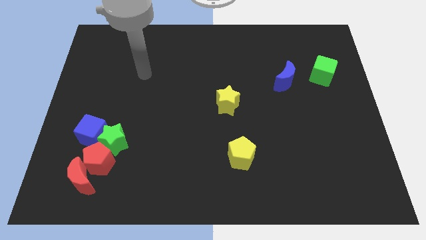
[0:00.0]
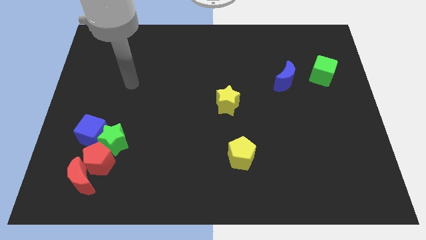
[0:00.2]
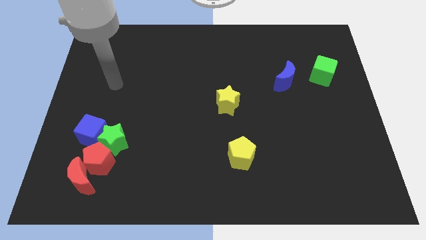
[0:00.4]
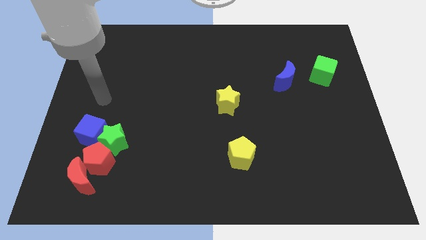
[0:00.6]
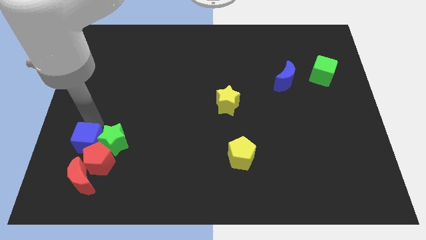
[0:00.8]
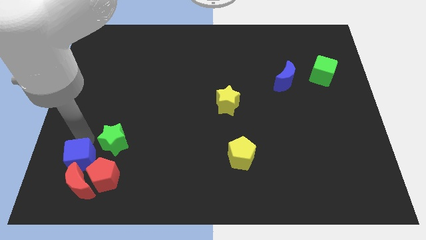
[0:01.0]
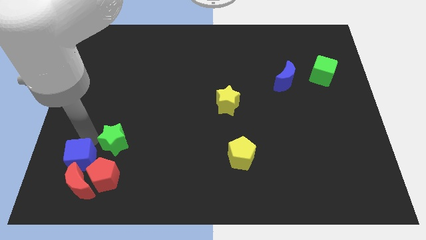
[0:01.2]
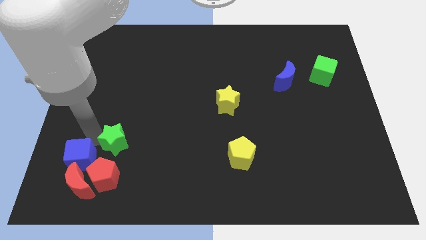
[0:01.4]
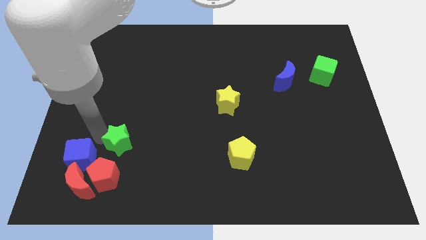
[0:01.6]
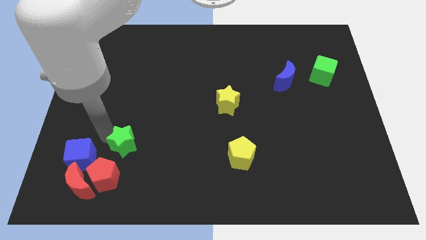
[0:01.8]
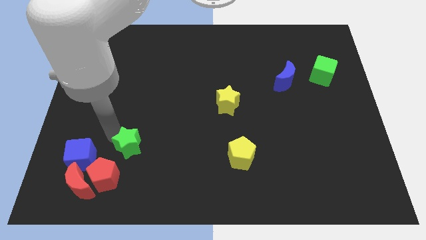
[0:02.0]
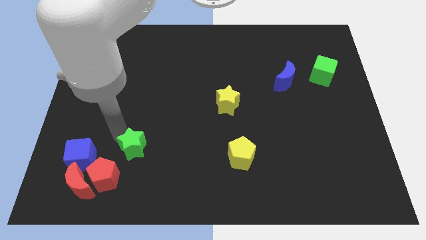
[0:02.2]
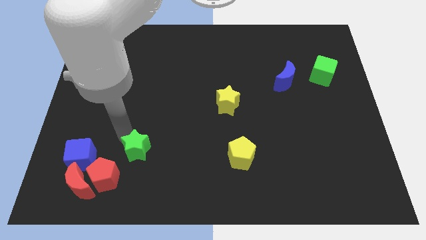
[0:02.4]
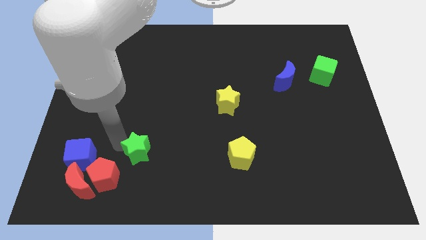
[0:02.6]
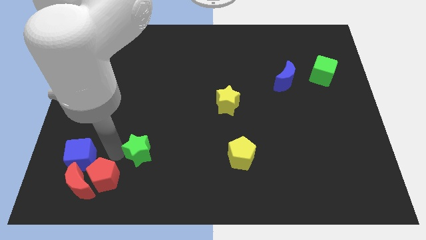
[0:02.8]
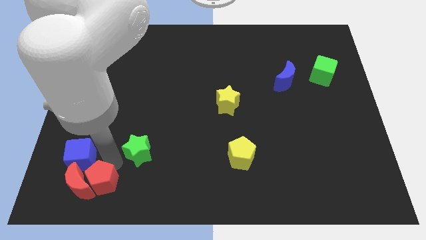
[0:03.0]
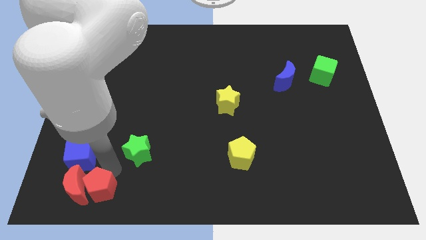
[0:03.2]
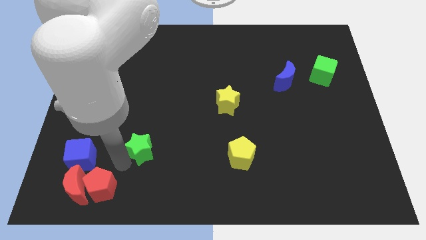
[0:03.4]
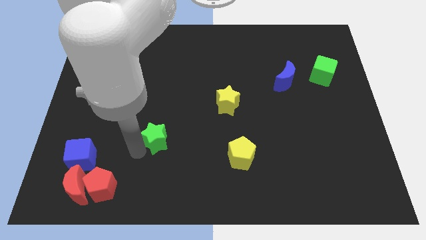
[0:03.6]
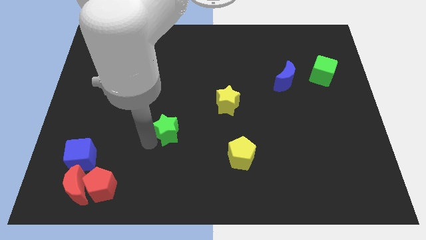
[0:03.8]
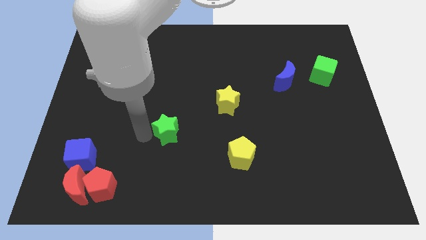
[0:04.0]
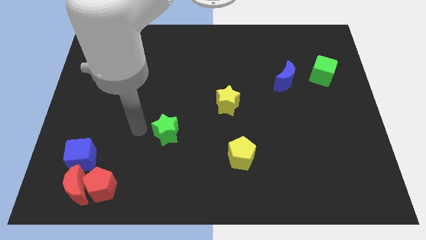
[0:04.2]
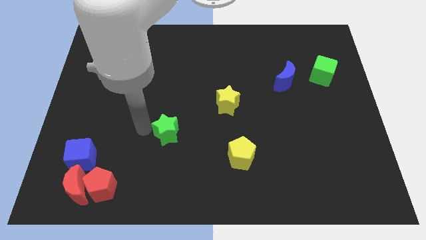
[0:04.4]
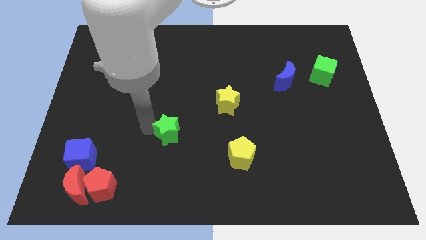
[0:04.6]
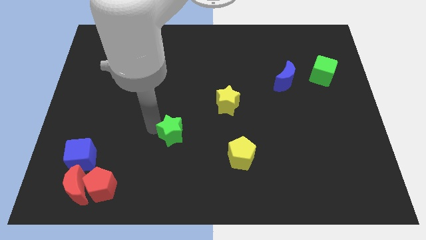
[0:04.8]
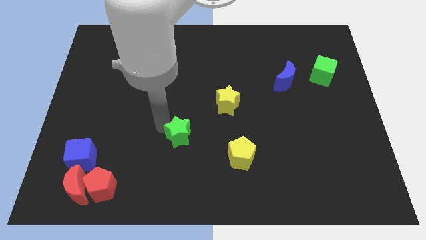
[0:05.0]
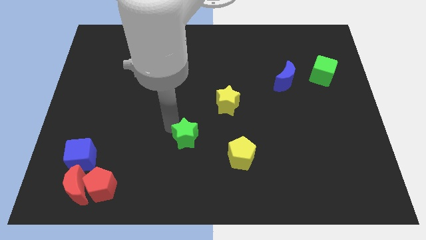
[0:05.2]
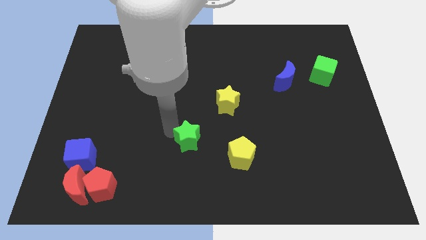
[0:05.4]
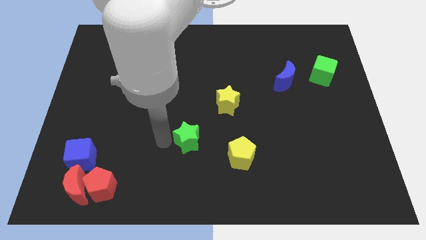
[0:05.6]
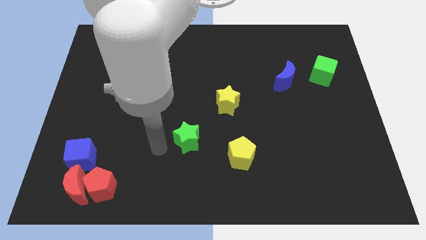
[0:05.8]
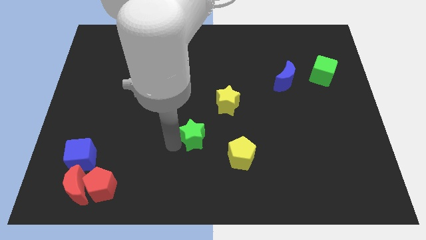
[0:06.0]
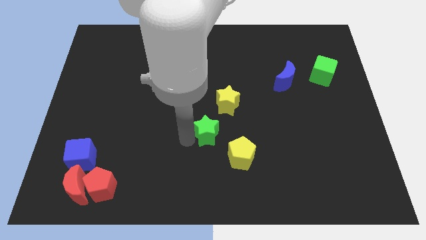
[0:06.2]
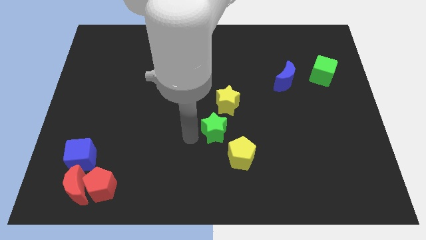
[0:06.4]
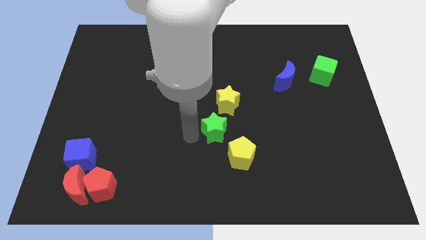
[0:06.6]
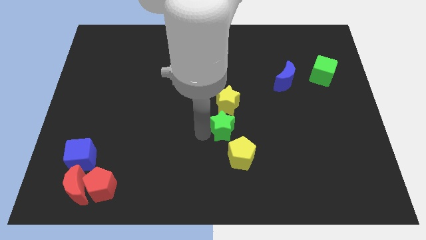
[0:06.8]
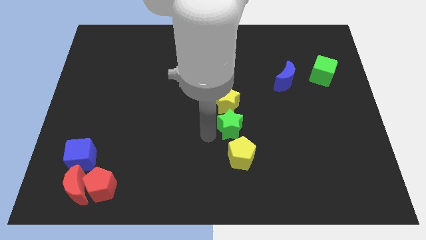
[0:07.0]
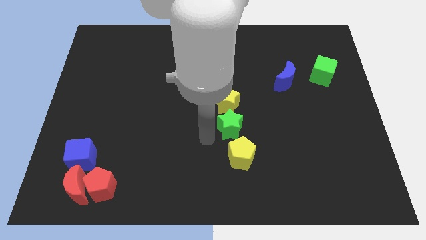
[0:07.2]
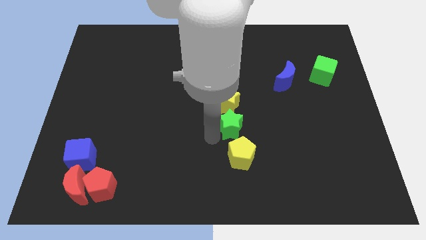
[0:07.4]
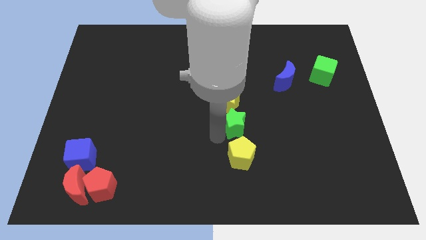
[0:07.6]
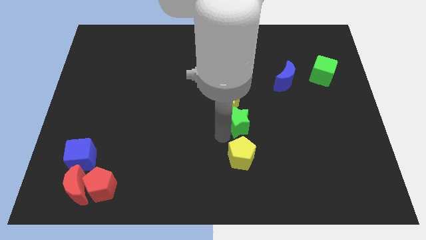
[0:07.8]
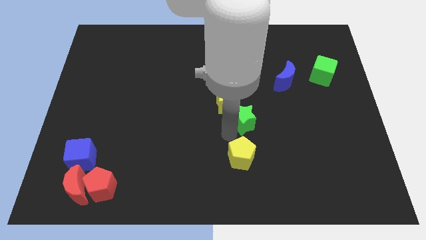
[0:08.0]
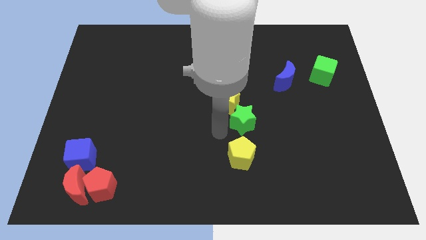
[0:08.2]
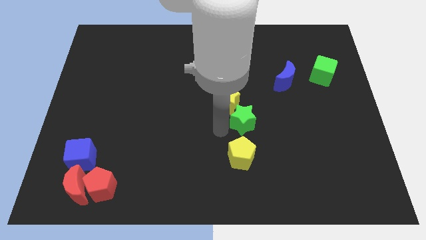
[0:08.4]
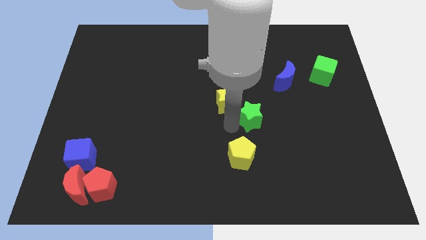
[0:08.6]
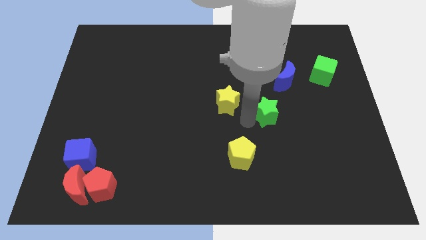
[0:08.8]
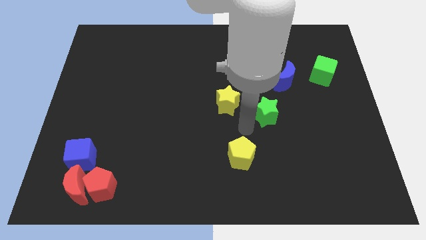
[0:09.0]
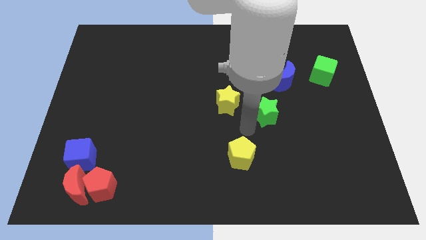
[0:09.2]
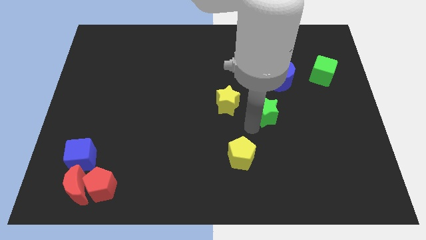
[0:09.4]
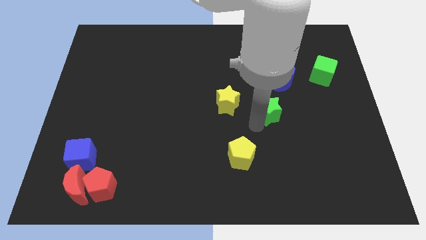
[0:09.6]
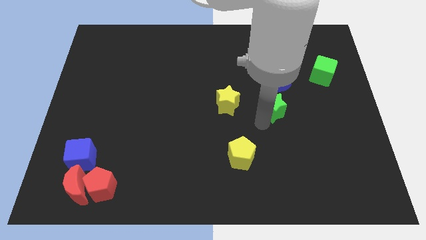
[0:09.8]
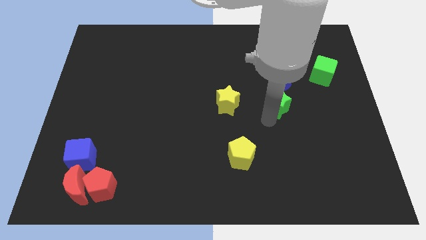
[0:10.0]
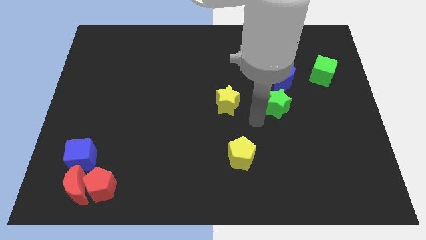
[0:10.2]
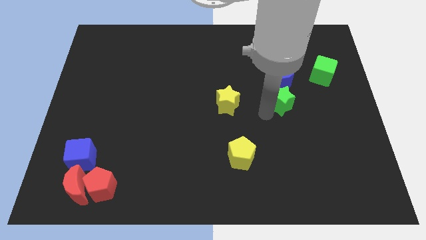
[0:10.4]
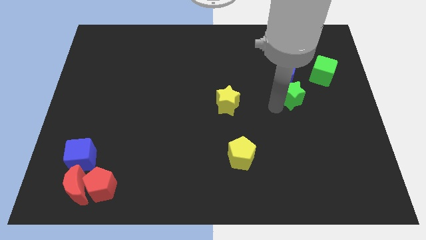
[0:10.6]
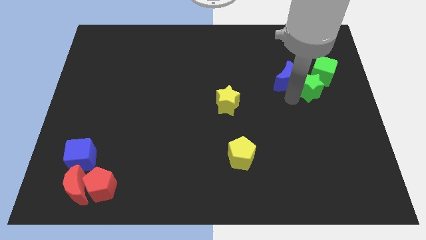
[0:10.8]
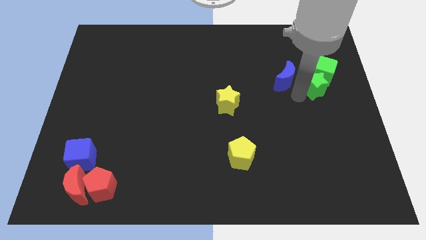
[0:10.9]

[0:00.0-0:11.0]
put the green star close to the green cube
